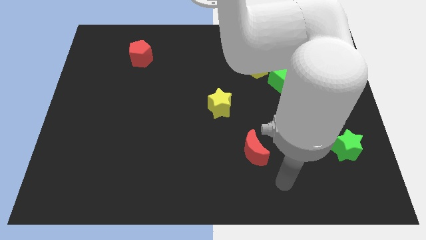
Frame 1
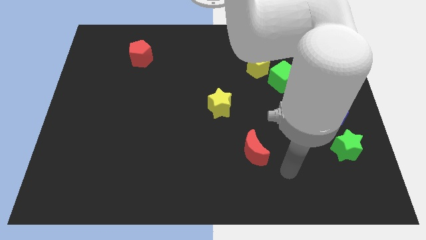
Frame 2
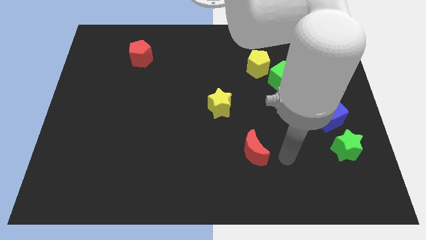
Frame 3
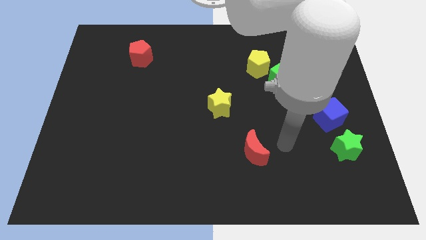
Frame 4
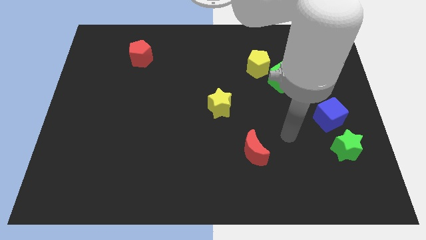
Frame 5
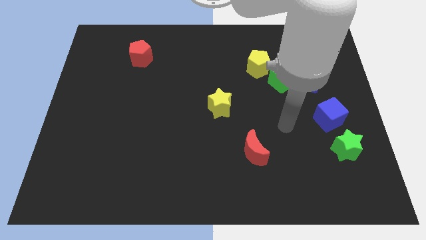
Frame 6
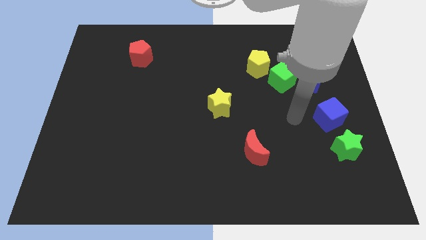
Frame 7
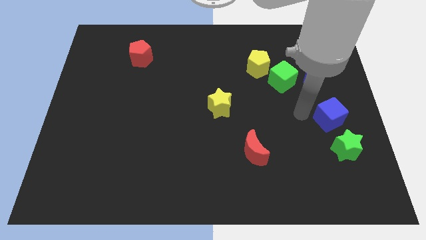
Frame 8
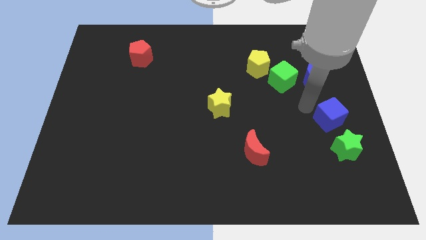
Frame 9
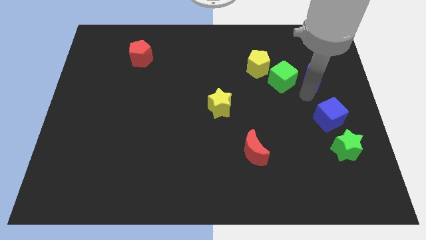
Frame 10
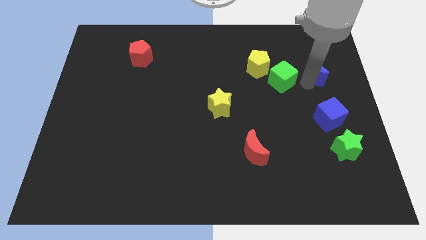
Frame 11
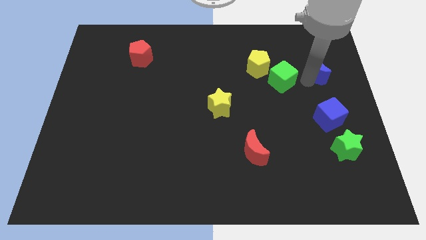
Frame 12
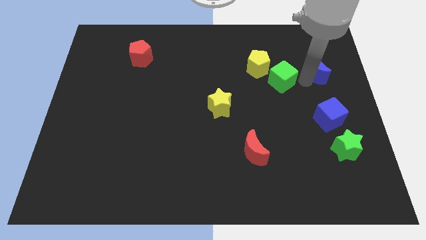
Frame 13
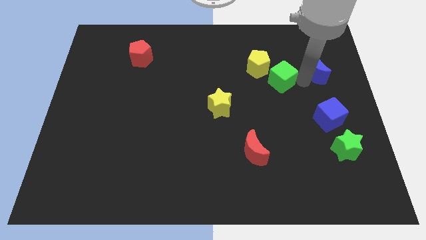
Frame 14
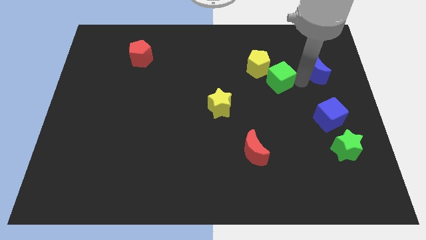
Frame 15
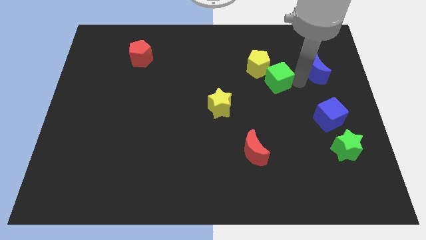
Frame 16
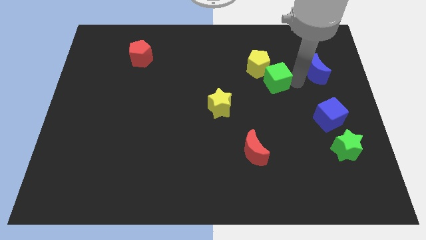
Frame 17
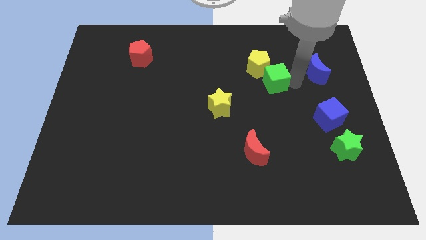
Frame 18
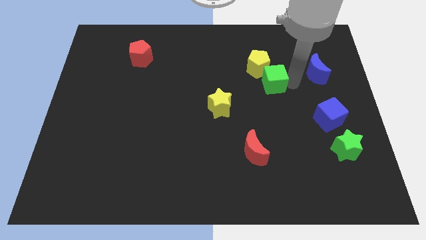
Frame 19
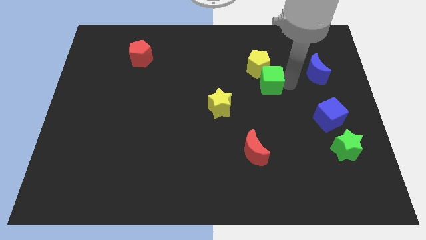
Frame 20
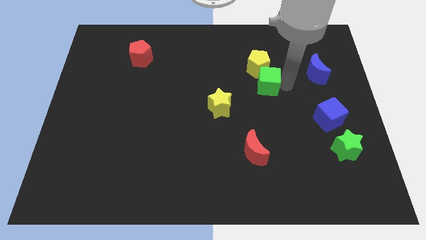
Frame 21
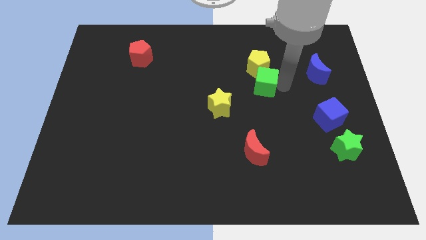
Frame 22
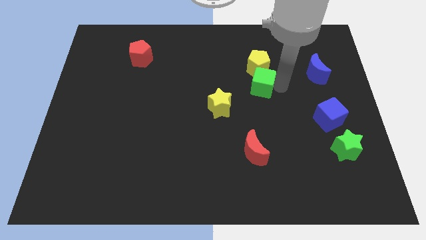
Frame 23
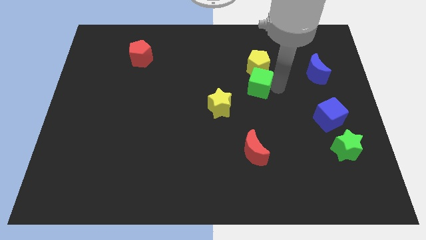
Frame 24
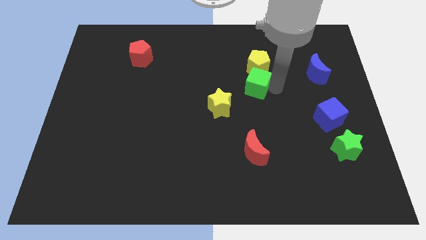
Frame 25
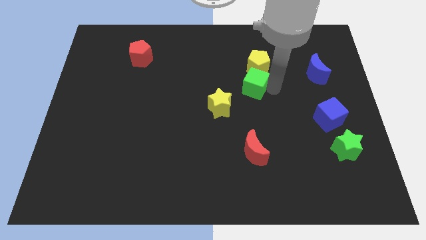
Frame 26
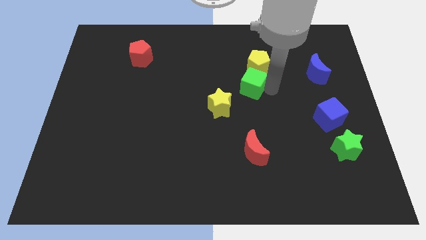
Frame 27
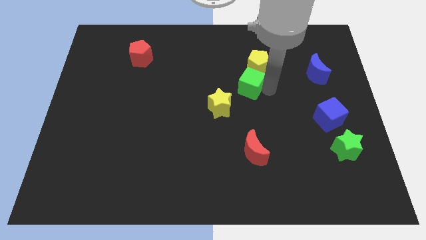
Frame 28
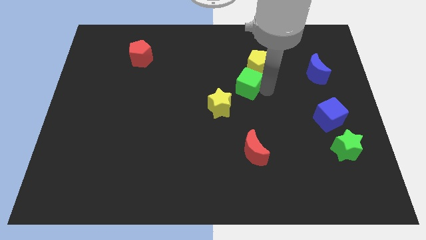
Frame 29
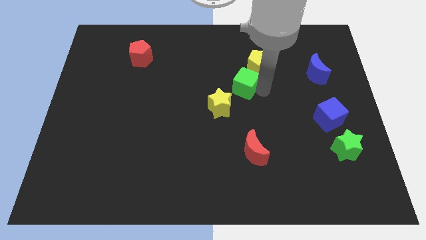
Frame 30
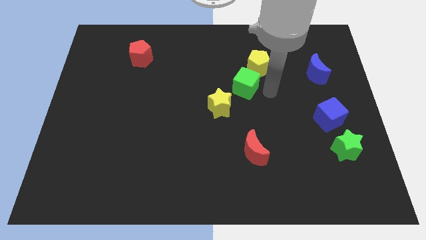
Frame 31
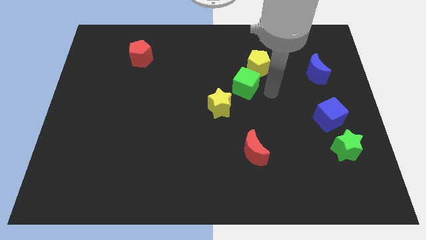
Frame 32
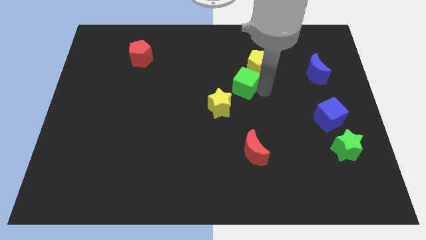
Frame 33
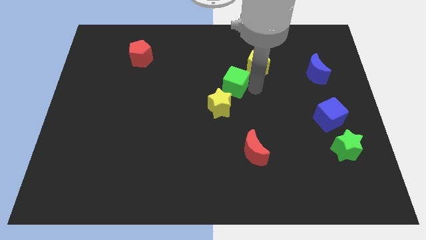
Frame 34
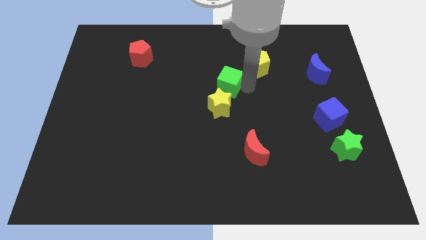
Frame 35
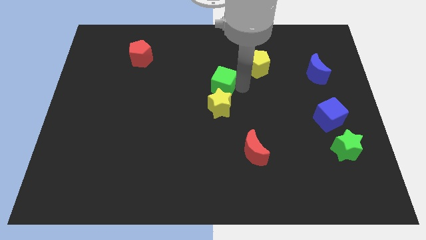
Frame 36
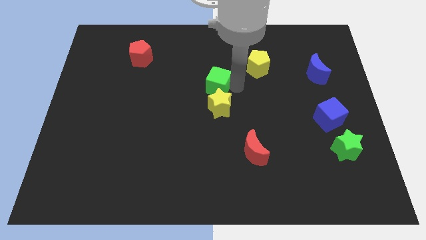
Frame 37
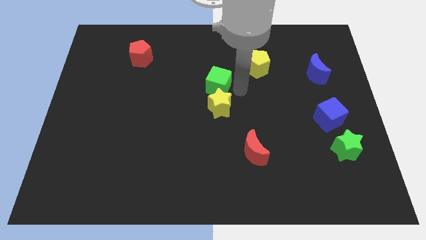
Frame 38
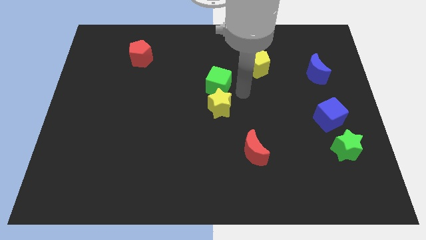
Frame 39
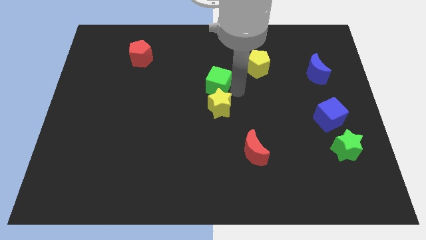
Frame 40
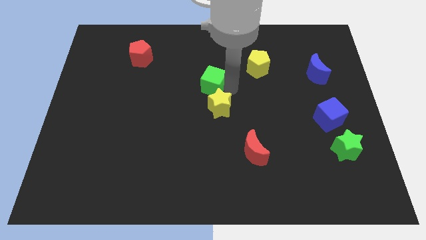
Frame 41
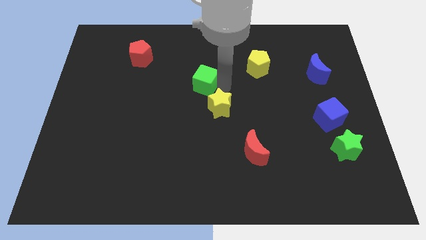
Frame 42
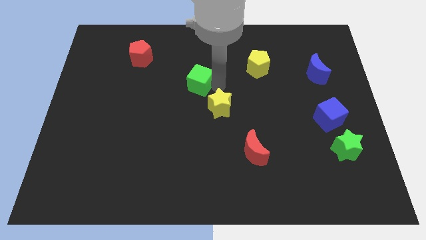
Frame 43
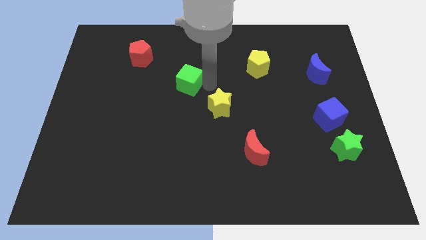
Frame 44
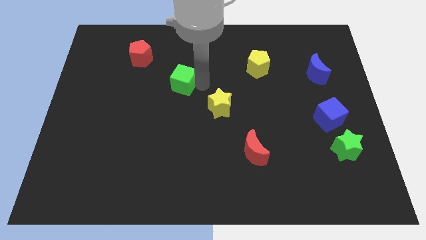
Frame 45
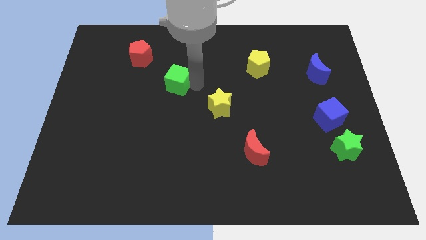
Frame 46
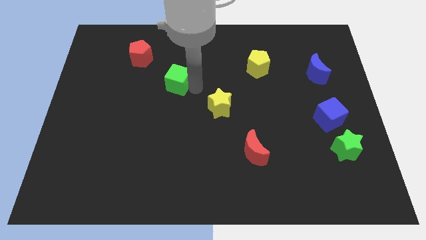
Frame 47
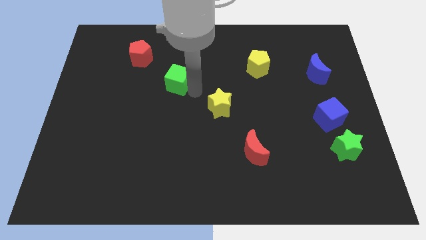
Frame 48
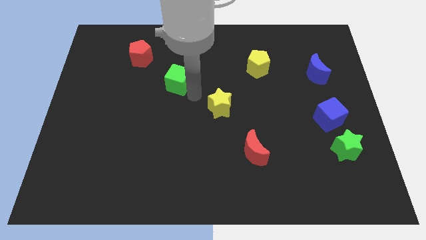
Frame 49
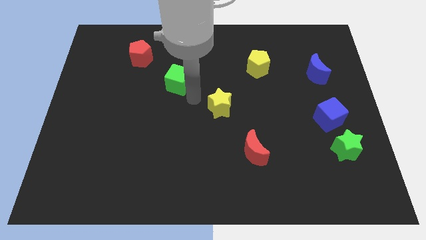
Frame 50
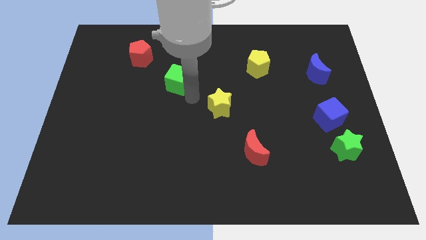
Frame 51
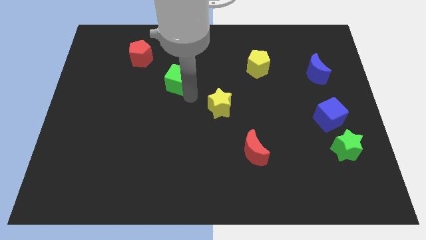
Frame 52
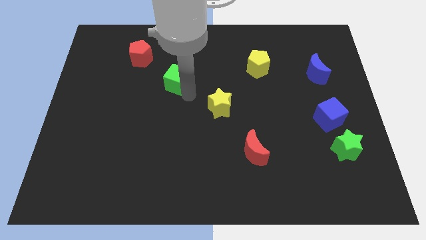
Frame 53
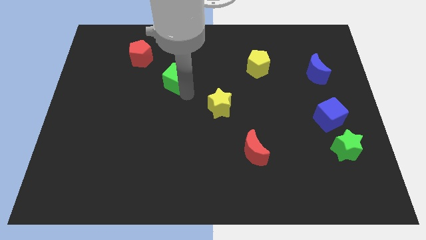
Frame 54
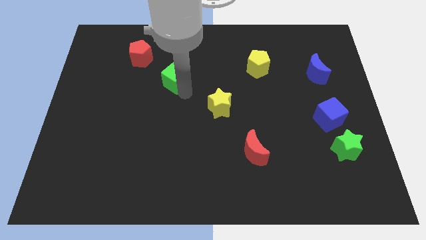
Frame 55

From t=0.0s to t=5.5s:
slide the green cube diagonally down and to the right of the red pentagon

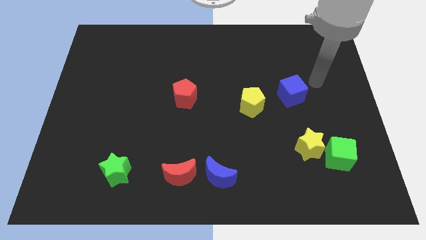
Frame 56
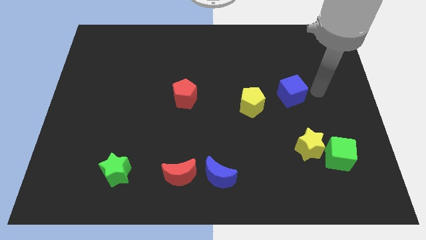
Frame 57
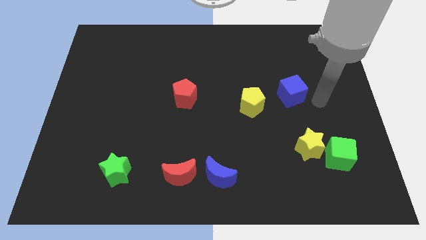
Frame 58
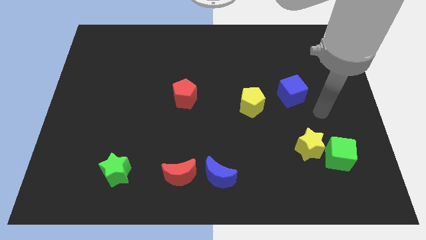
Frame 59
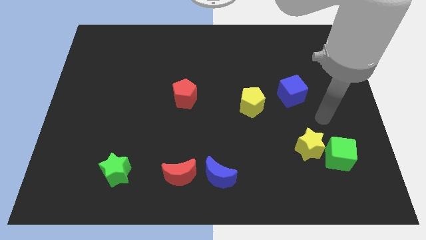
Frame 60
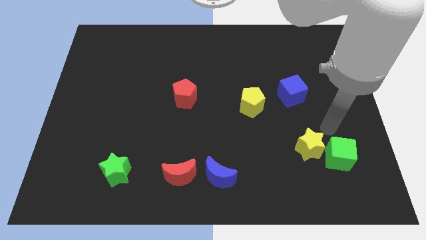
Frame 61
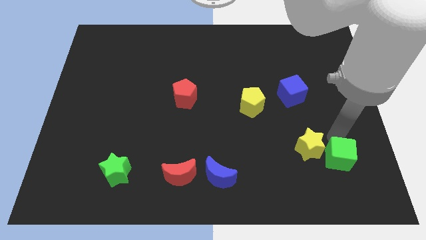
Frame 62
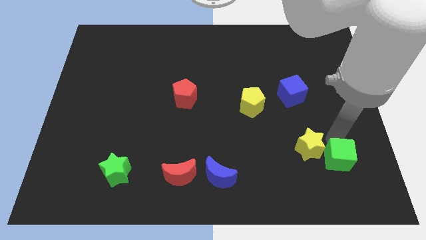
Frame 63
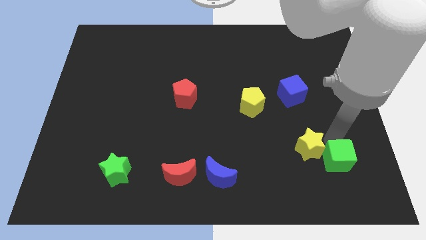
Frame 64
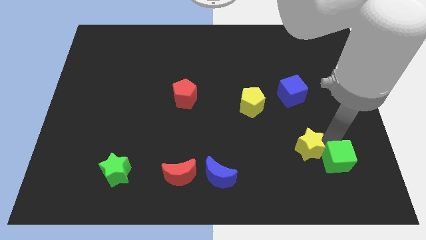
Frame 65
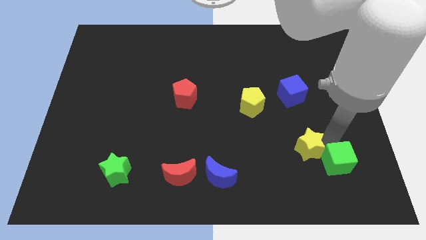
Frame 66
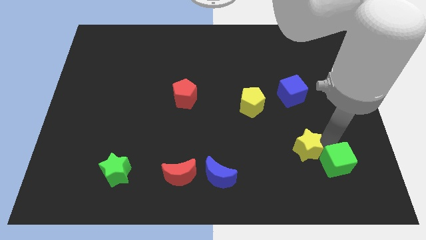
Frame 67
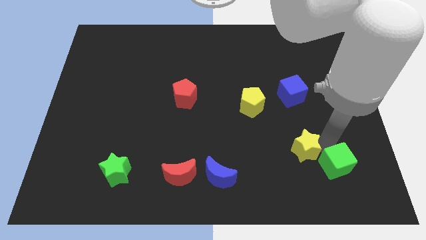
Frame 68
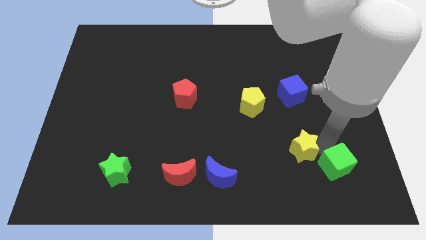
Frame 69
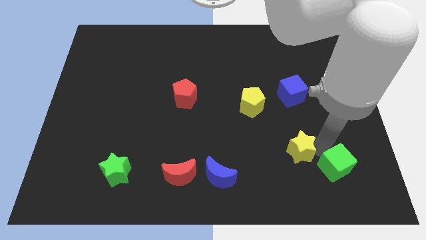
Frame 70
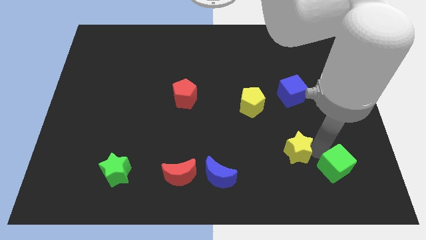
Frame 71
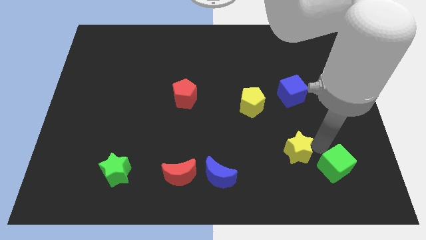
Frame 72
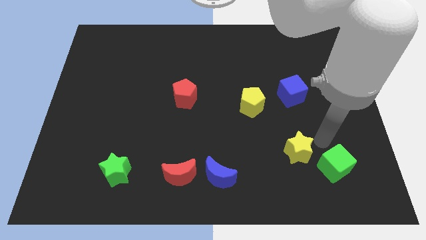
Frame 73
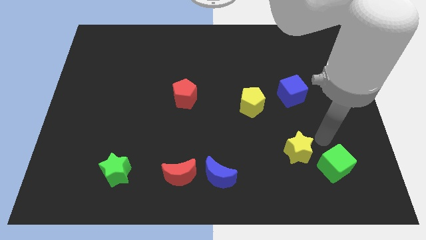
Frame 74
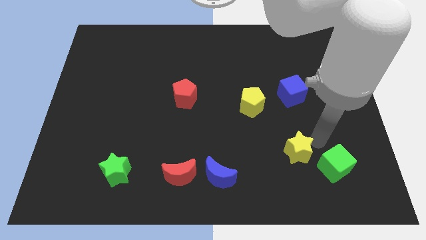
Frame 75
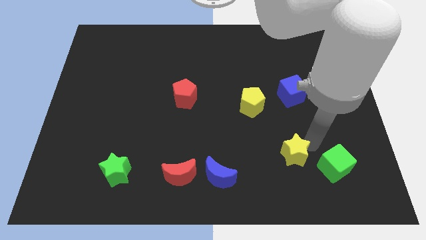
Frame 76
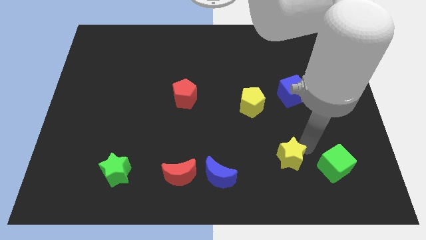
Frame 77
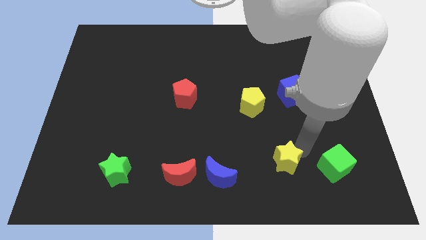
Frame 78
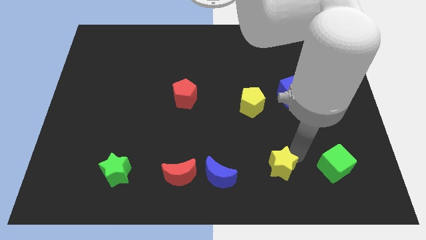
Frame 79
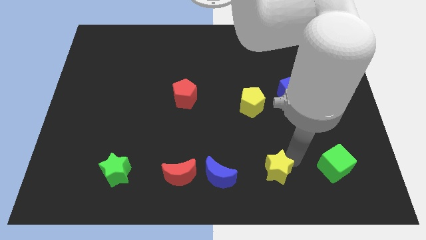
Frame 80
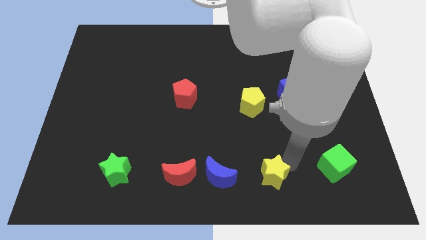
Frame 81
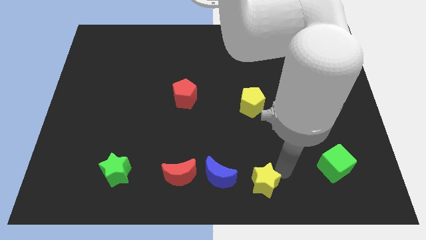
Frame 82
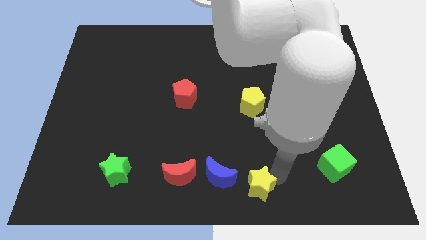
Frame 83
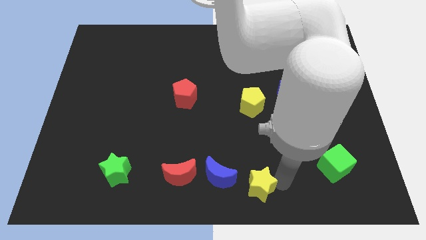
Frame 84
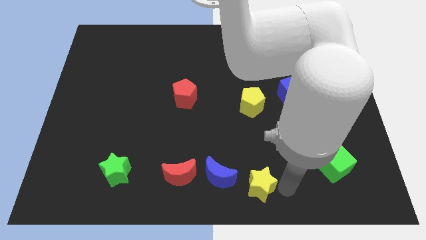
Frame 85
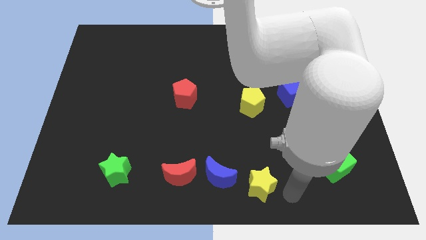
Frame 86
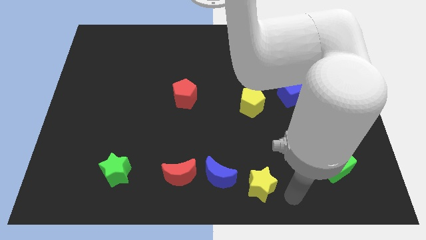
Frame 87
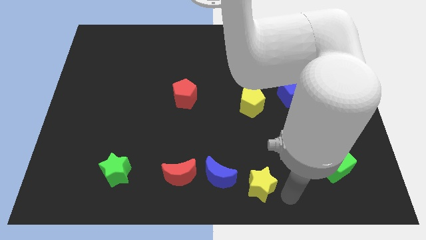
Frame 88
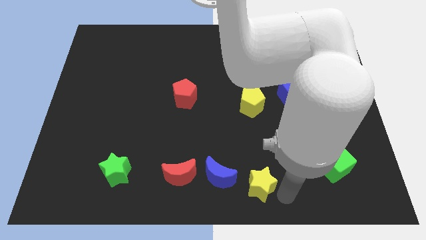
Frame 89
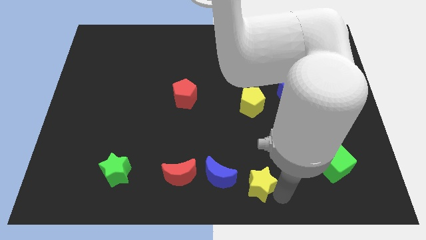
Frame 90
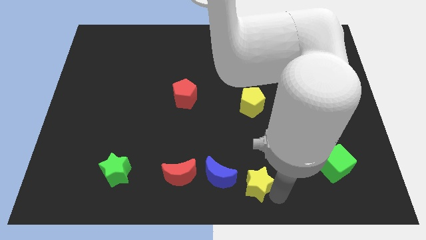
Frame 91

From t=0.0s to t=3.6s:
move the yellow star just right of the red moon
